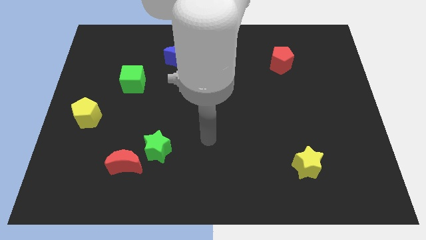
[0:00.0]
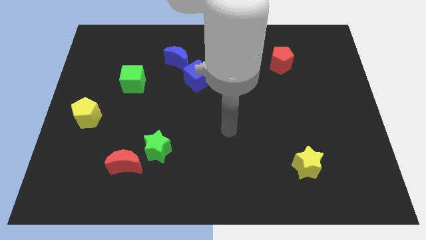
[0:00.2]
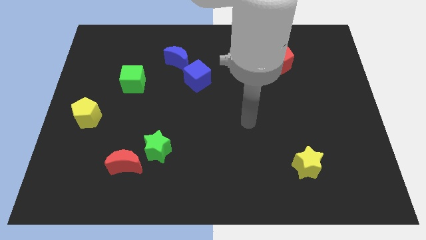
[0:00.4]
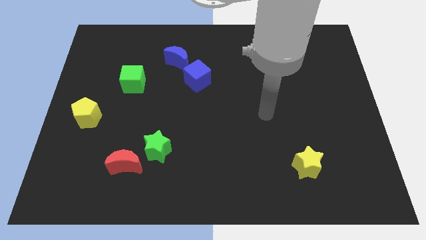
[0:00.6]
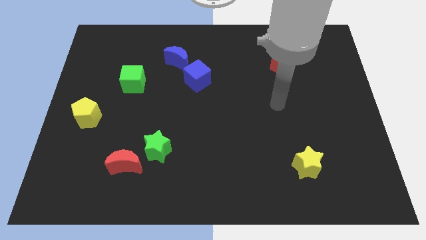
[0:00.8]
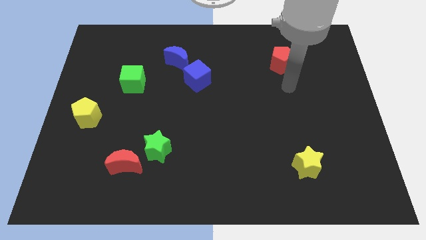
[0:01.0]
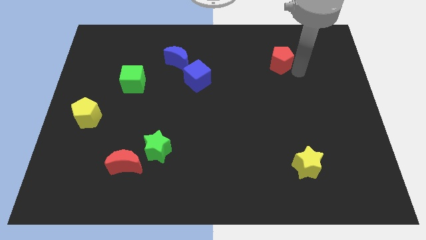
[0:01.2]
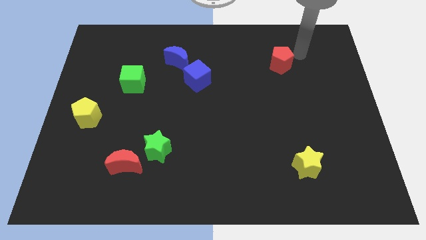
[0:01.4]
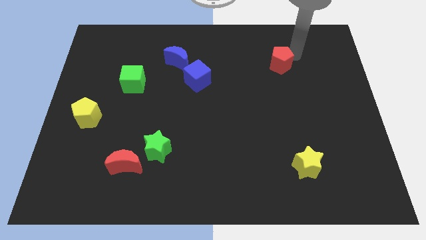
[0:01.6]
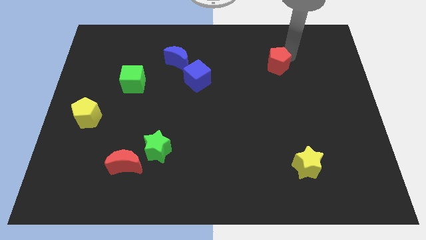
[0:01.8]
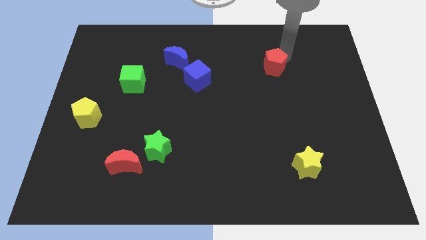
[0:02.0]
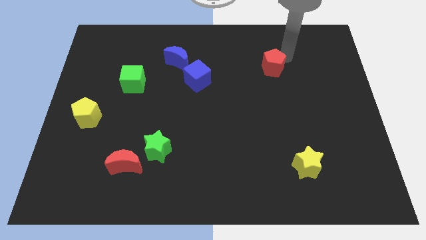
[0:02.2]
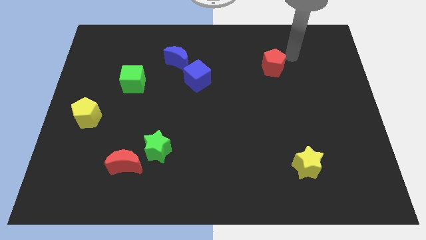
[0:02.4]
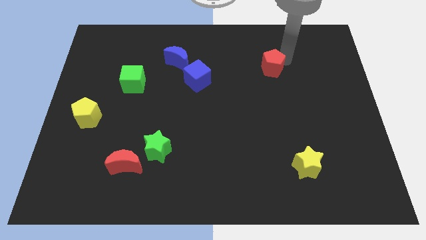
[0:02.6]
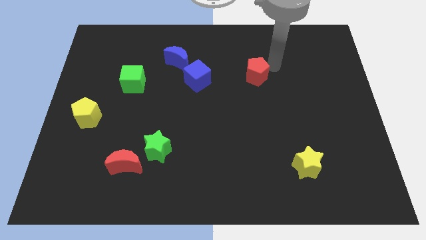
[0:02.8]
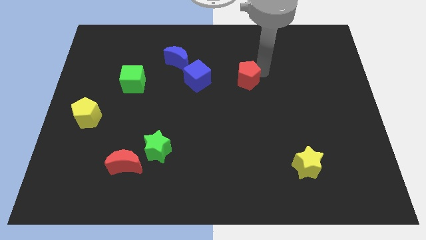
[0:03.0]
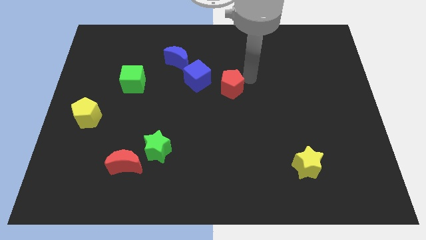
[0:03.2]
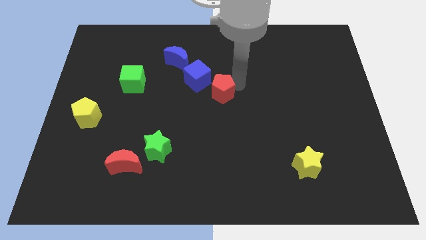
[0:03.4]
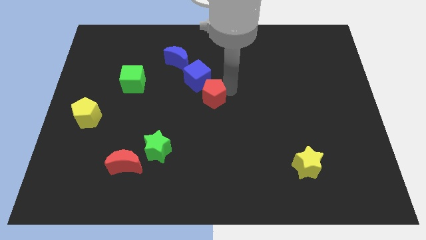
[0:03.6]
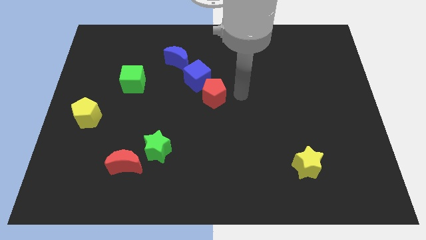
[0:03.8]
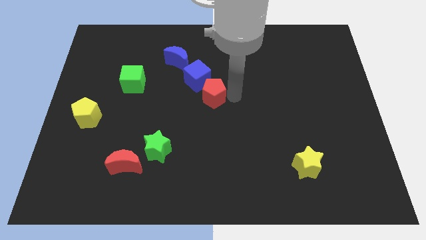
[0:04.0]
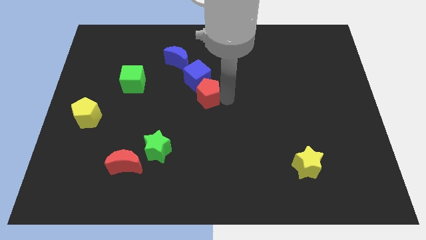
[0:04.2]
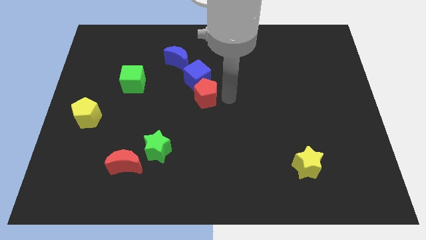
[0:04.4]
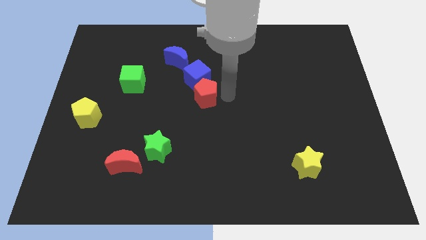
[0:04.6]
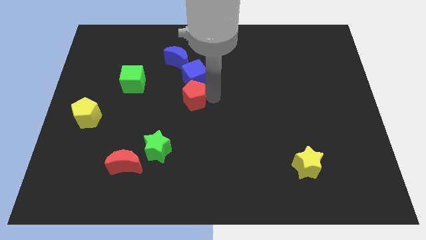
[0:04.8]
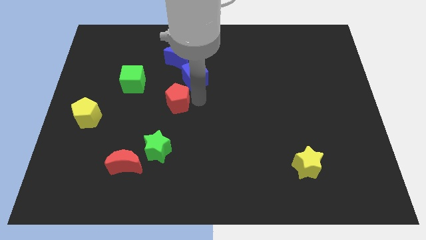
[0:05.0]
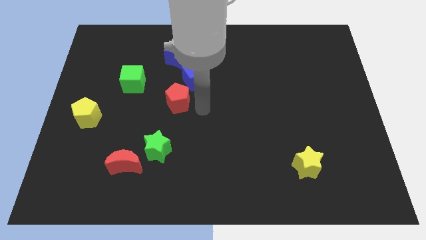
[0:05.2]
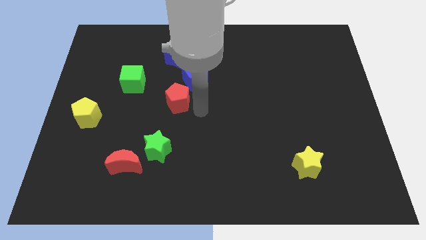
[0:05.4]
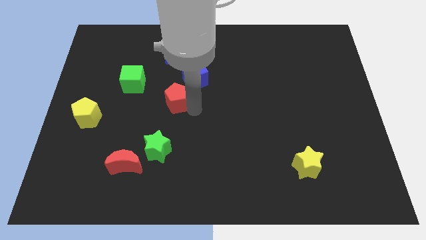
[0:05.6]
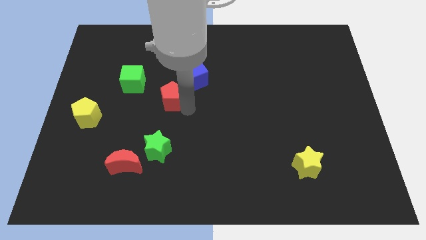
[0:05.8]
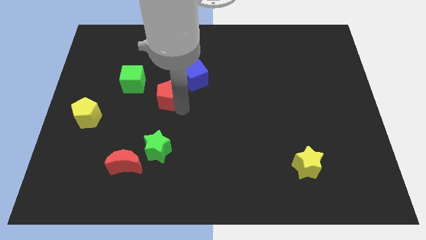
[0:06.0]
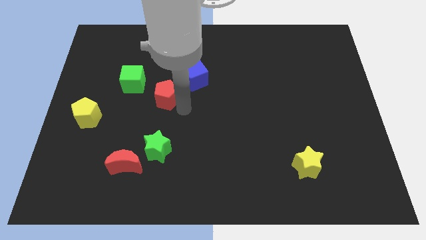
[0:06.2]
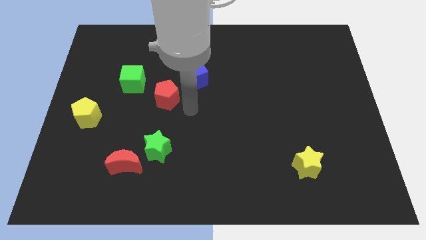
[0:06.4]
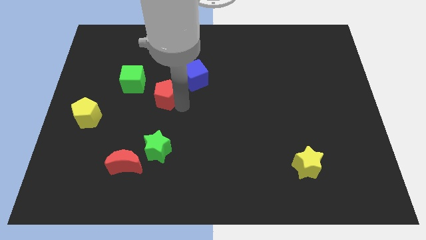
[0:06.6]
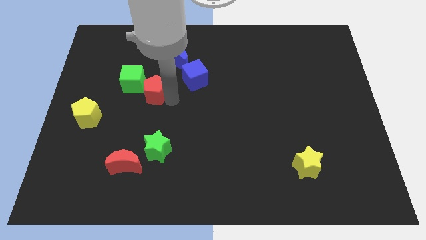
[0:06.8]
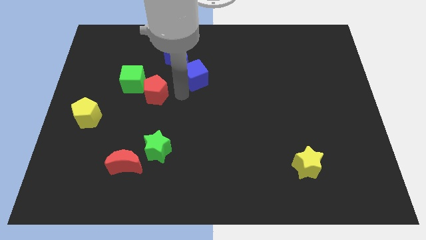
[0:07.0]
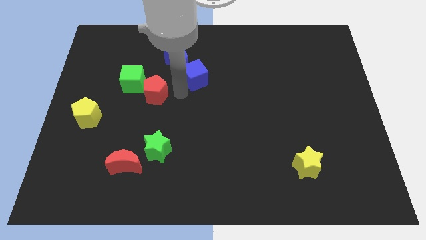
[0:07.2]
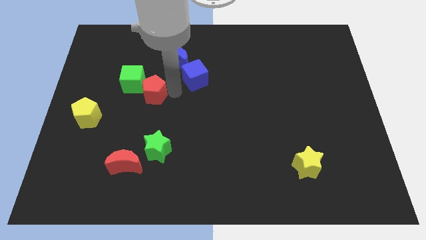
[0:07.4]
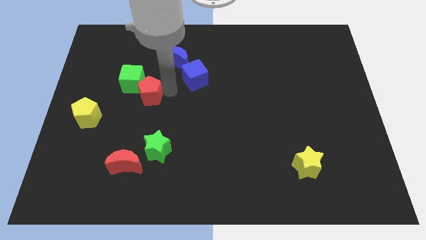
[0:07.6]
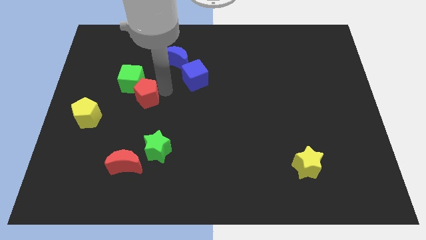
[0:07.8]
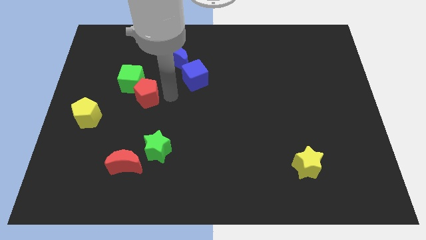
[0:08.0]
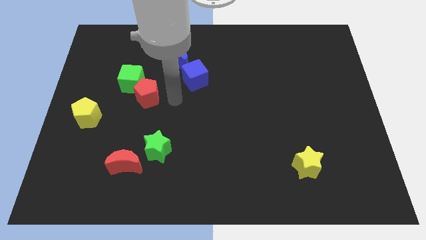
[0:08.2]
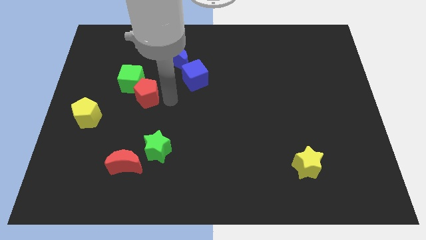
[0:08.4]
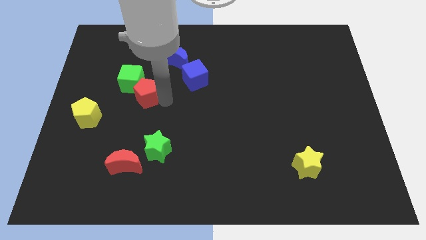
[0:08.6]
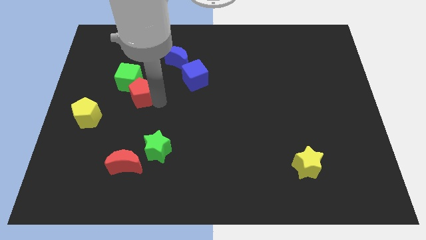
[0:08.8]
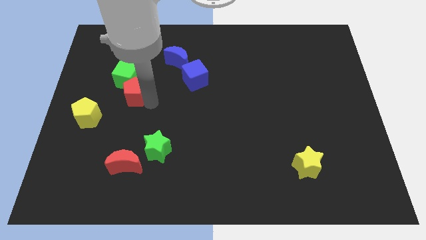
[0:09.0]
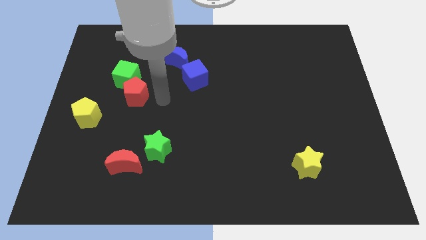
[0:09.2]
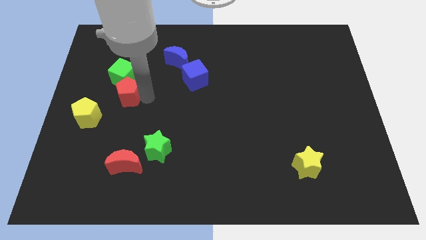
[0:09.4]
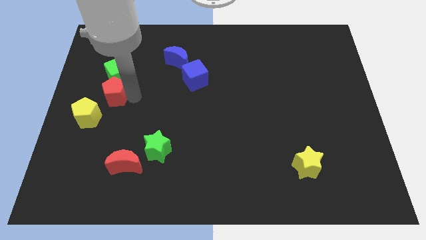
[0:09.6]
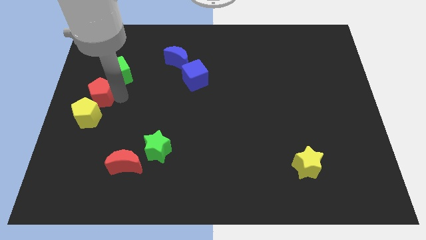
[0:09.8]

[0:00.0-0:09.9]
move the red pentagon to the left side

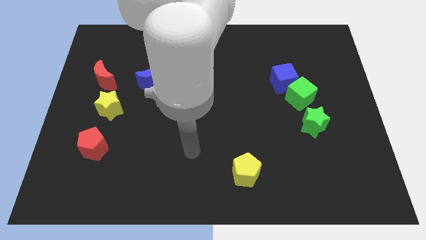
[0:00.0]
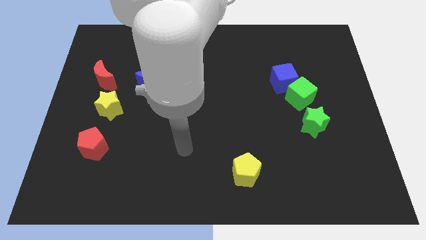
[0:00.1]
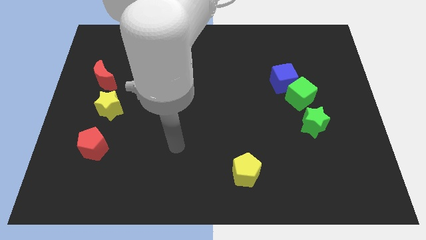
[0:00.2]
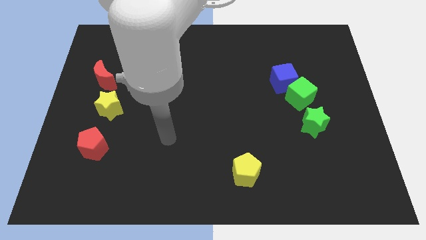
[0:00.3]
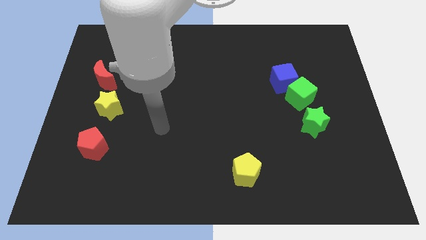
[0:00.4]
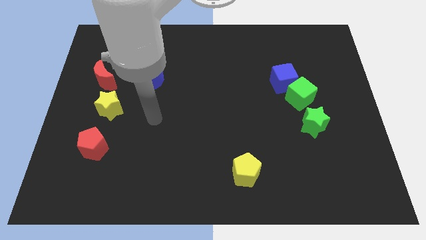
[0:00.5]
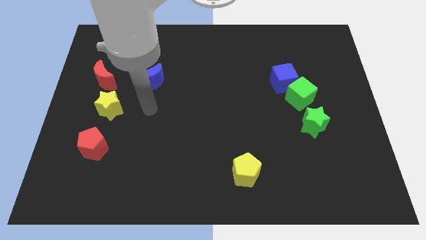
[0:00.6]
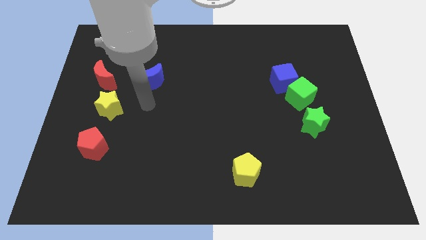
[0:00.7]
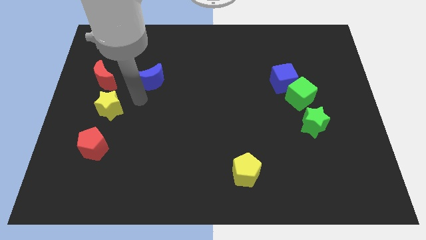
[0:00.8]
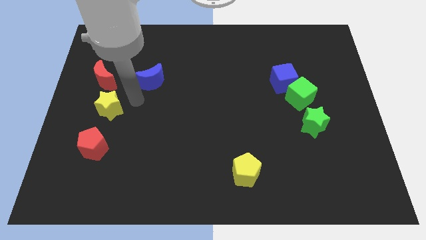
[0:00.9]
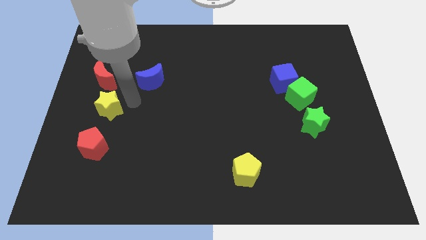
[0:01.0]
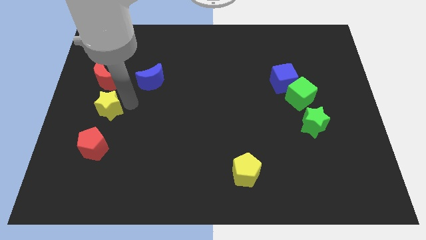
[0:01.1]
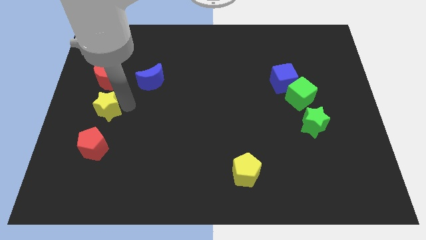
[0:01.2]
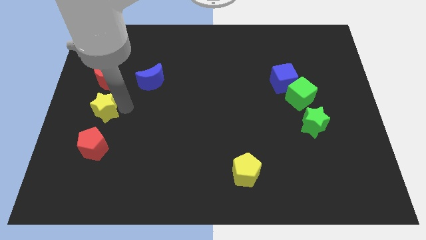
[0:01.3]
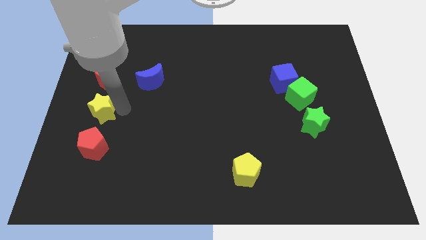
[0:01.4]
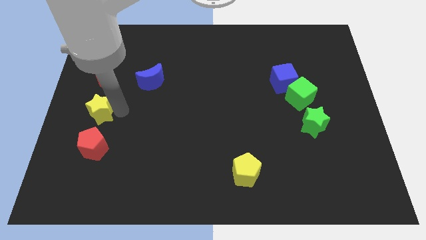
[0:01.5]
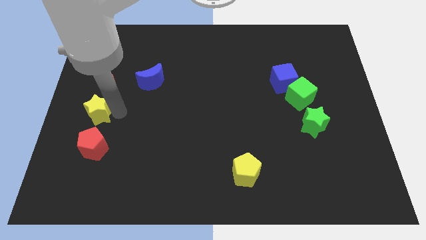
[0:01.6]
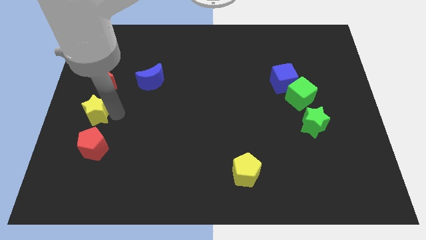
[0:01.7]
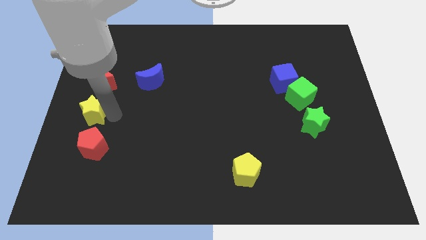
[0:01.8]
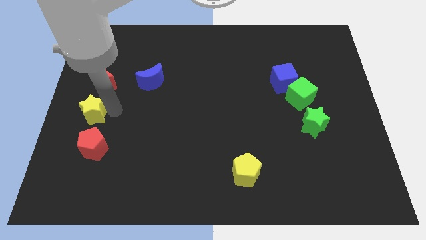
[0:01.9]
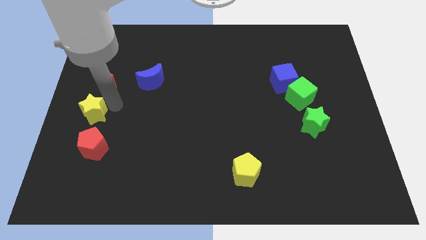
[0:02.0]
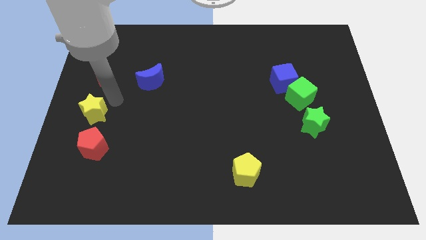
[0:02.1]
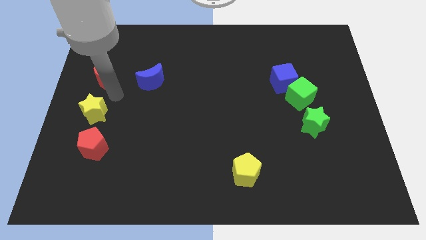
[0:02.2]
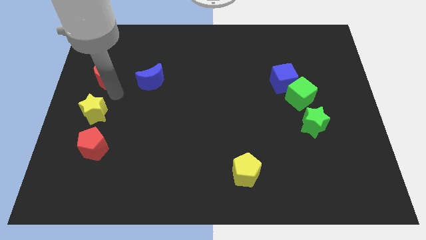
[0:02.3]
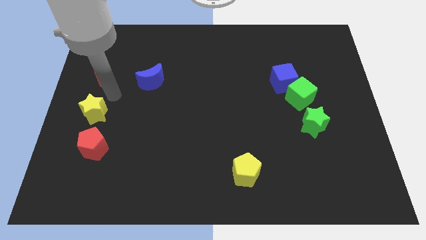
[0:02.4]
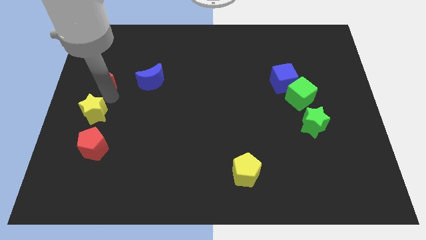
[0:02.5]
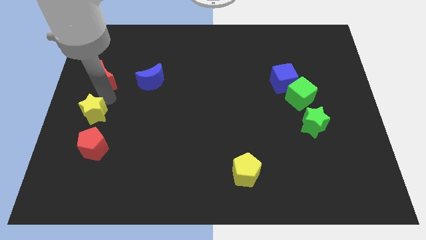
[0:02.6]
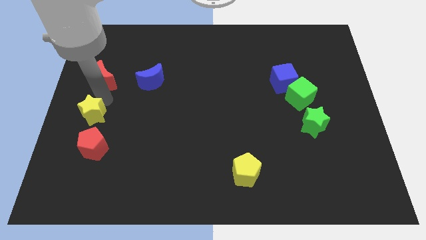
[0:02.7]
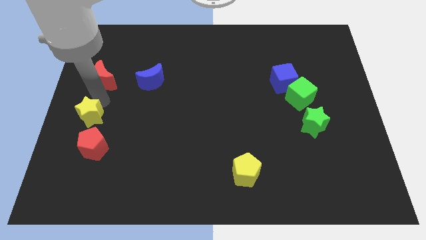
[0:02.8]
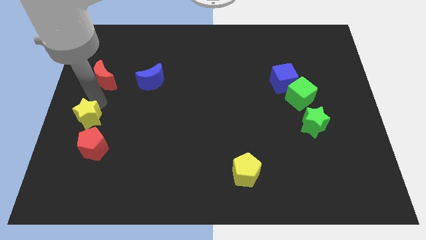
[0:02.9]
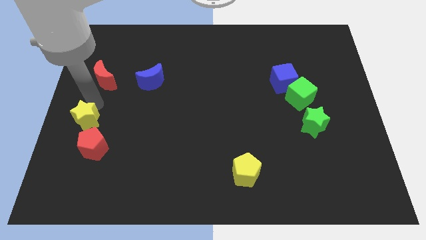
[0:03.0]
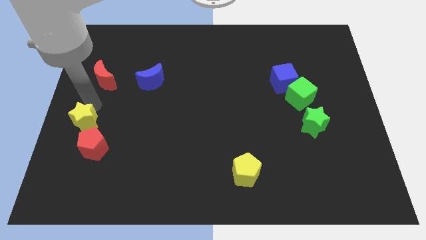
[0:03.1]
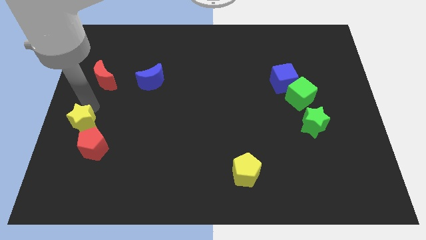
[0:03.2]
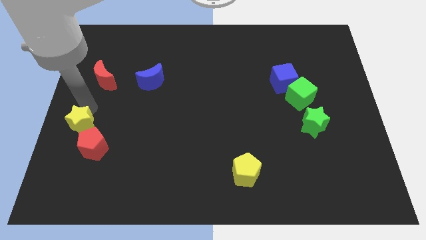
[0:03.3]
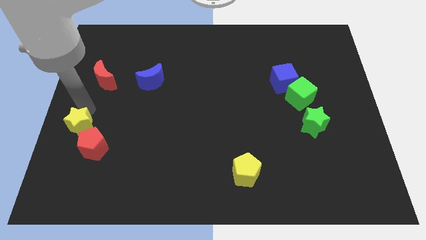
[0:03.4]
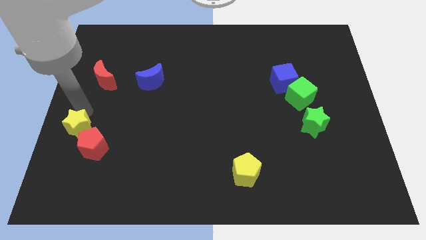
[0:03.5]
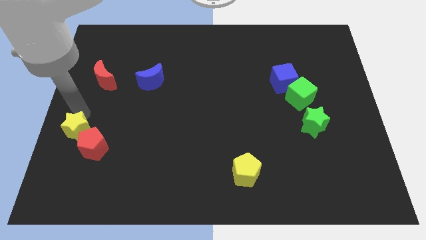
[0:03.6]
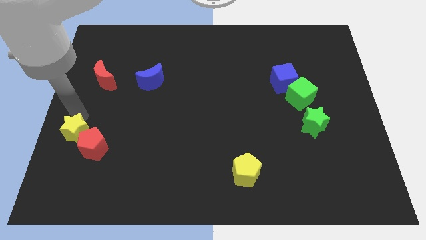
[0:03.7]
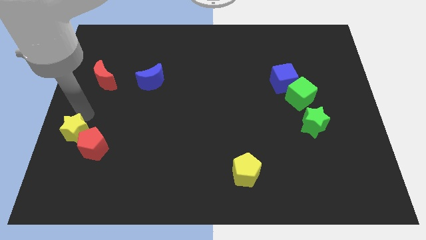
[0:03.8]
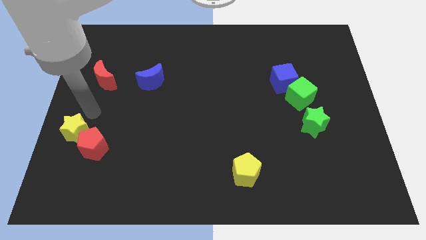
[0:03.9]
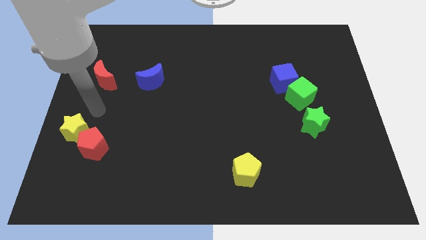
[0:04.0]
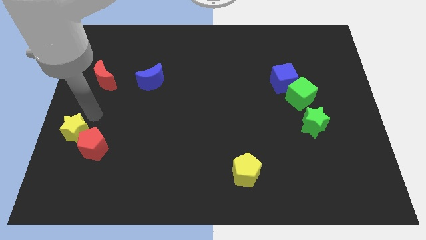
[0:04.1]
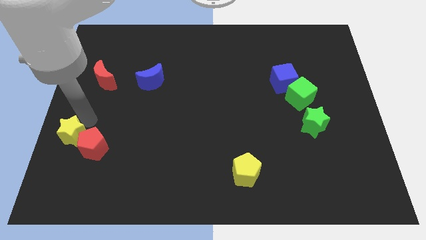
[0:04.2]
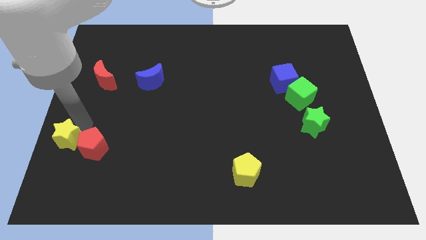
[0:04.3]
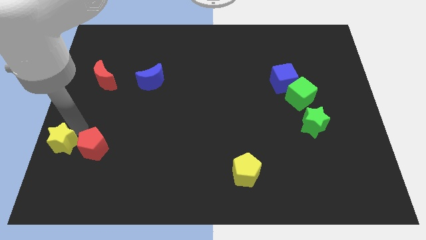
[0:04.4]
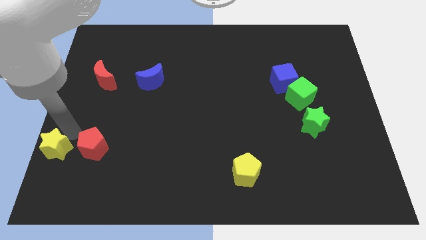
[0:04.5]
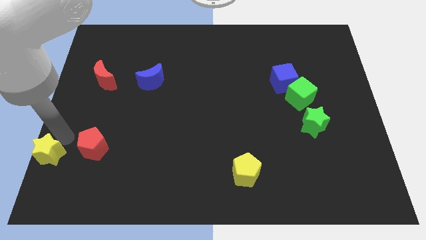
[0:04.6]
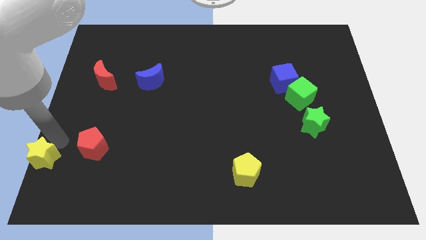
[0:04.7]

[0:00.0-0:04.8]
put the yellow star to the bottom left
